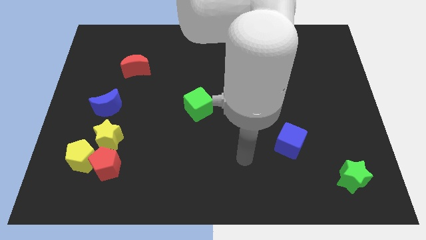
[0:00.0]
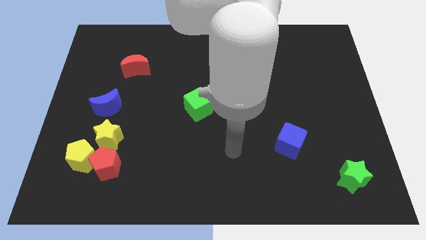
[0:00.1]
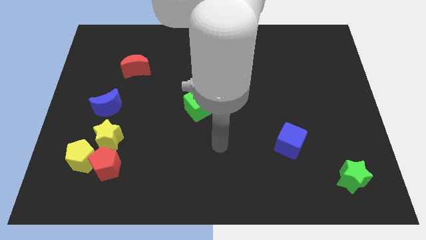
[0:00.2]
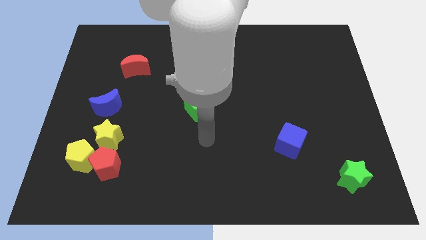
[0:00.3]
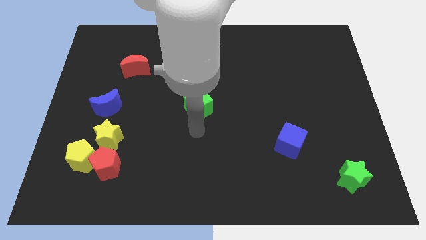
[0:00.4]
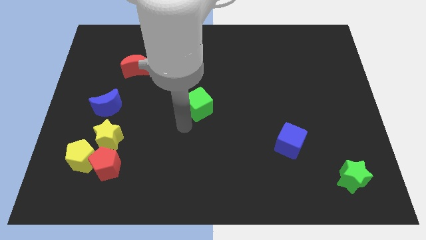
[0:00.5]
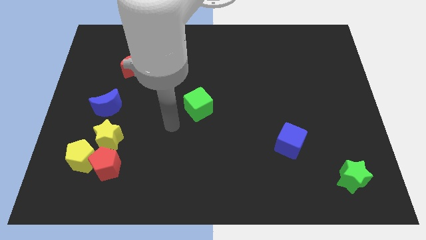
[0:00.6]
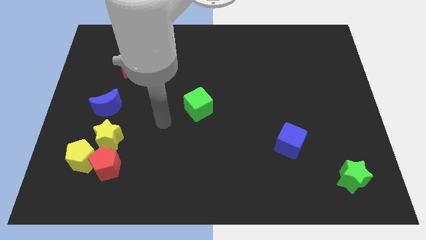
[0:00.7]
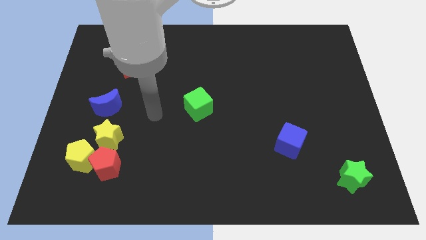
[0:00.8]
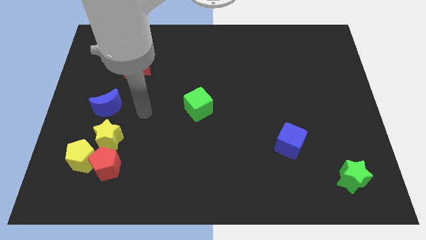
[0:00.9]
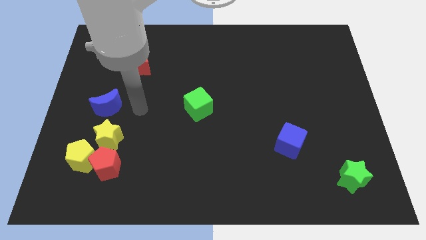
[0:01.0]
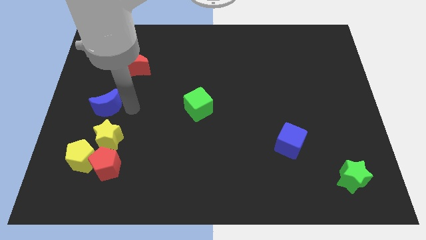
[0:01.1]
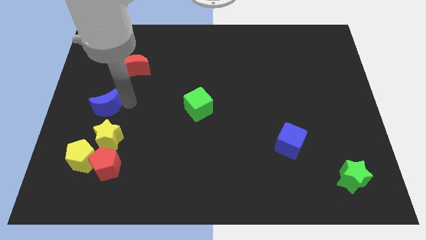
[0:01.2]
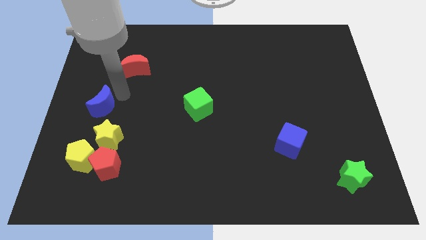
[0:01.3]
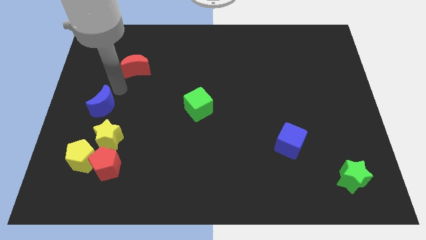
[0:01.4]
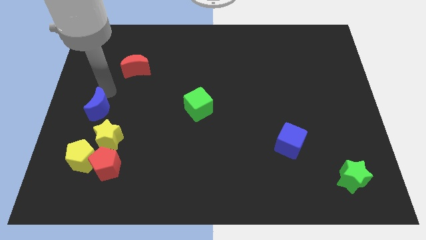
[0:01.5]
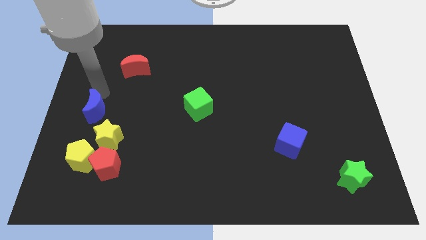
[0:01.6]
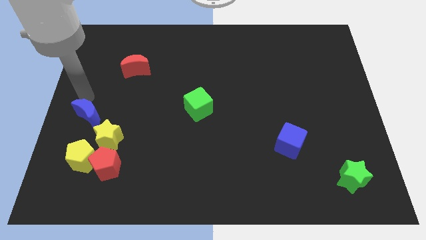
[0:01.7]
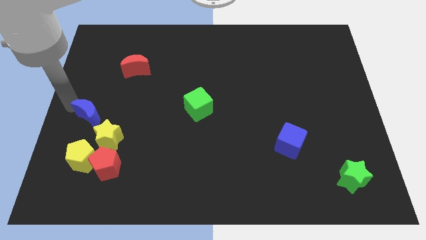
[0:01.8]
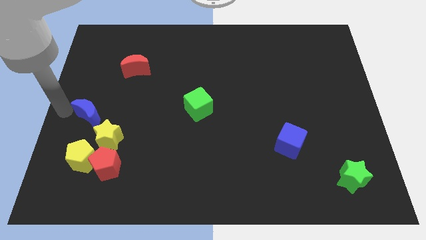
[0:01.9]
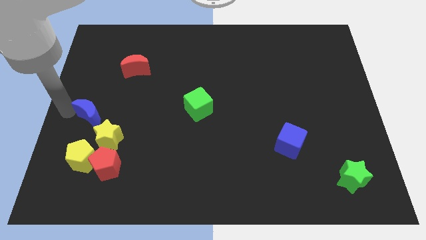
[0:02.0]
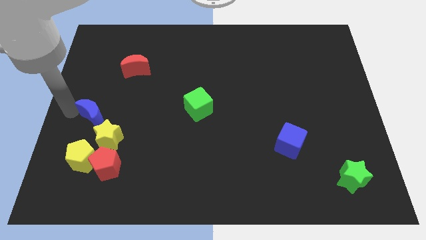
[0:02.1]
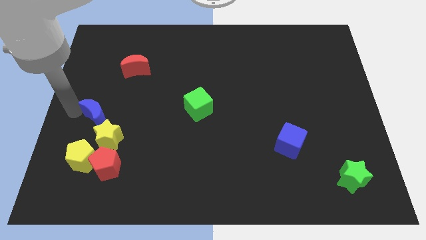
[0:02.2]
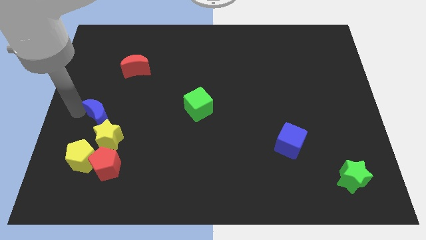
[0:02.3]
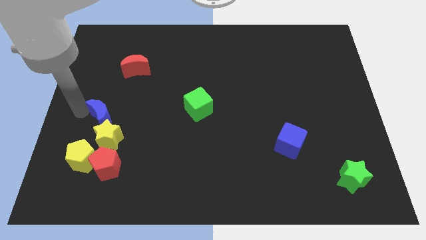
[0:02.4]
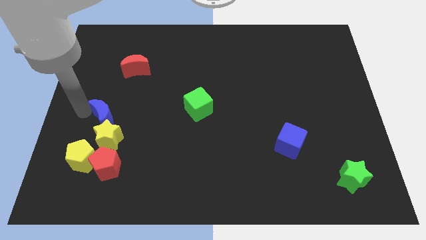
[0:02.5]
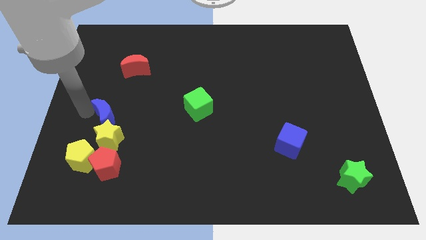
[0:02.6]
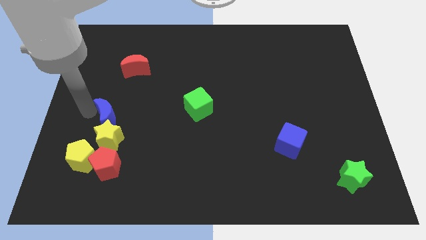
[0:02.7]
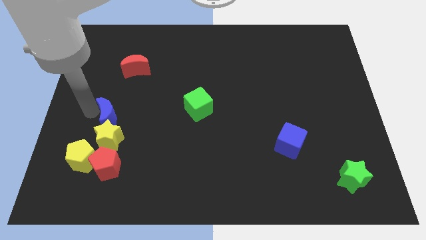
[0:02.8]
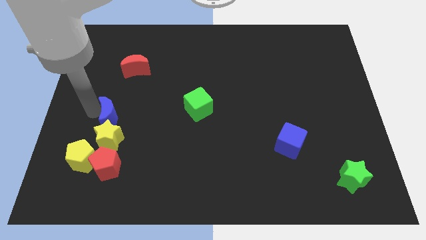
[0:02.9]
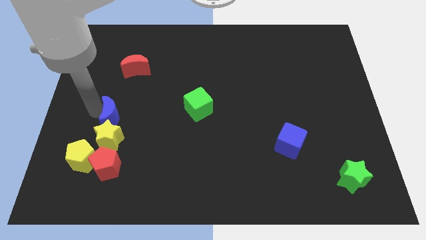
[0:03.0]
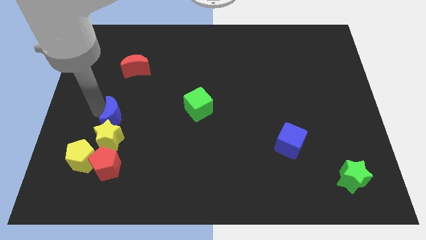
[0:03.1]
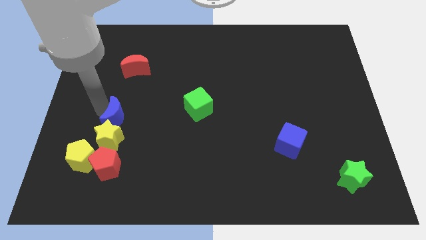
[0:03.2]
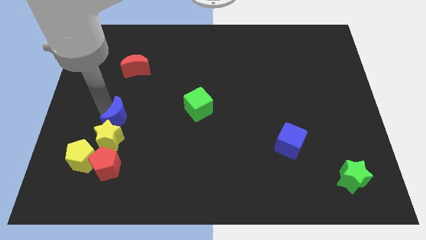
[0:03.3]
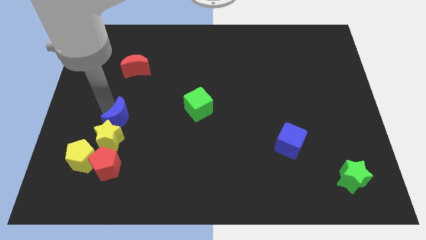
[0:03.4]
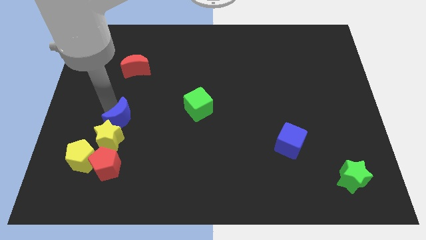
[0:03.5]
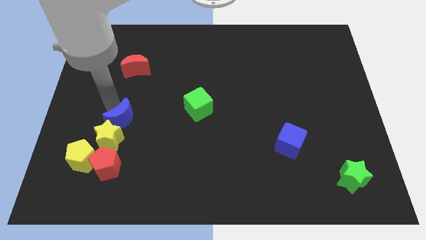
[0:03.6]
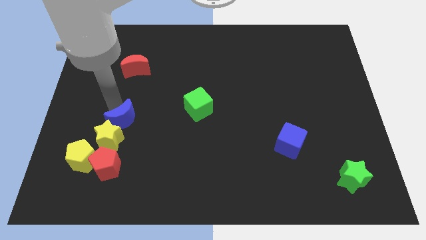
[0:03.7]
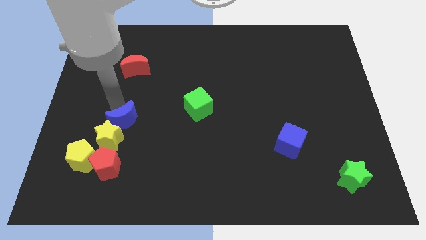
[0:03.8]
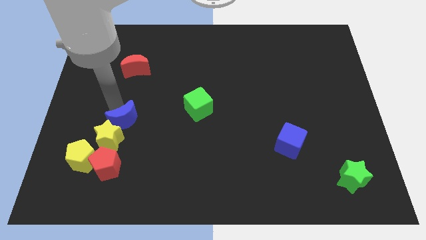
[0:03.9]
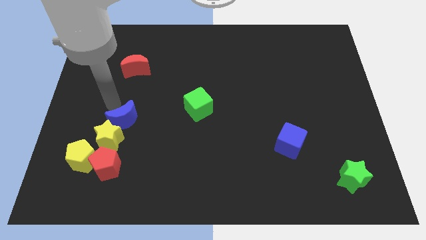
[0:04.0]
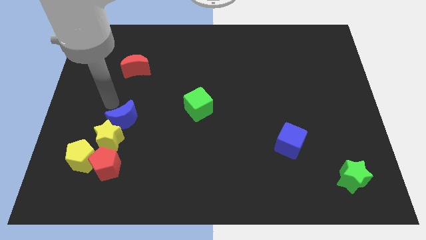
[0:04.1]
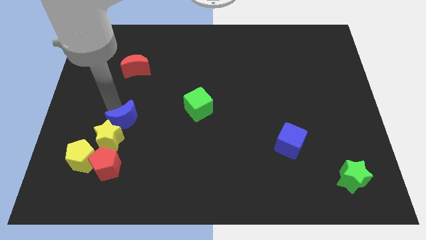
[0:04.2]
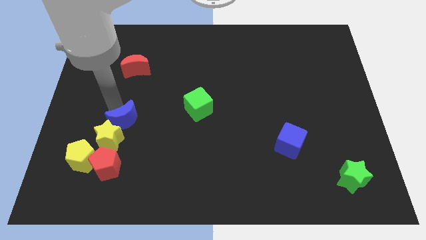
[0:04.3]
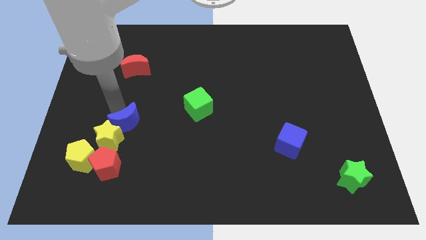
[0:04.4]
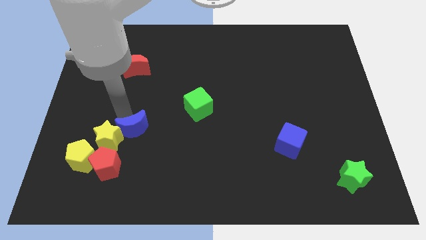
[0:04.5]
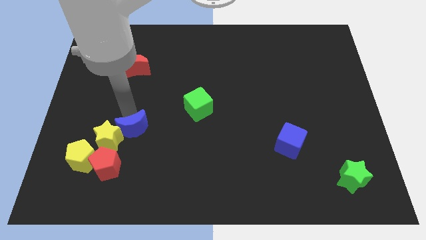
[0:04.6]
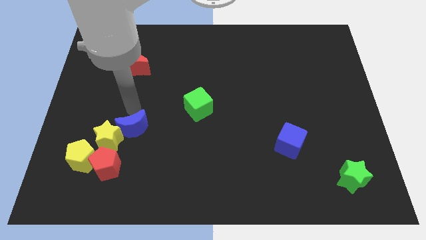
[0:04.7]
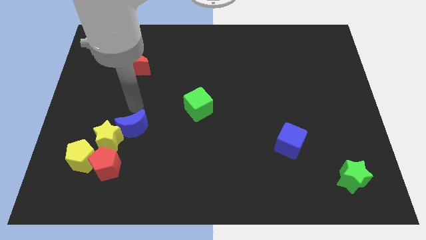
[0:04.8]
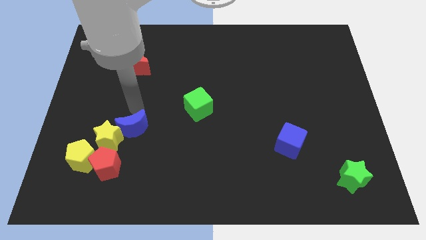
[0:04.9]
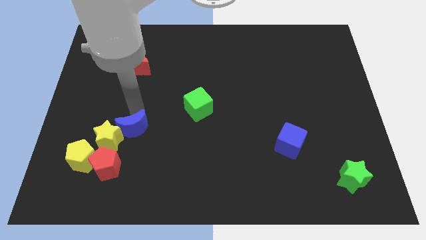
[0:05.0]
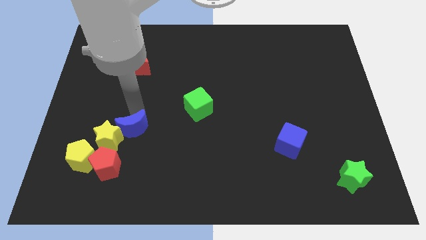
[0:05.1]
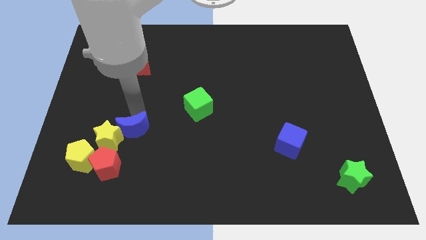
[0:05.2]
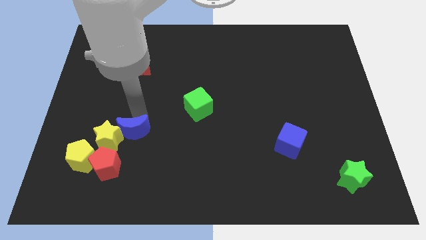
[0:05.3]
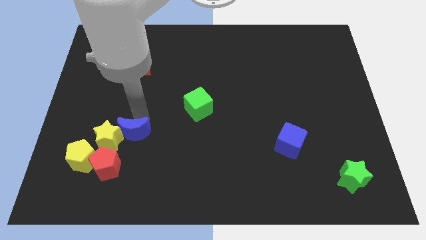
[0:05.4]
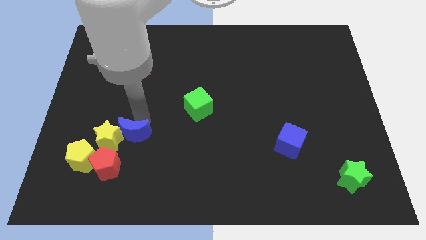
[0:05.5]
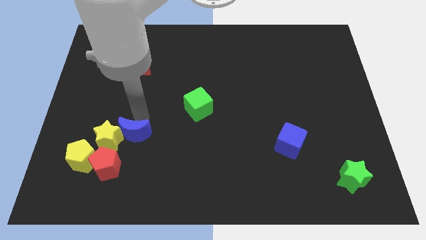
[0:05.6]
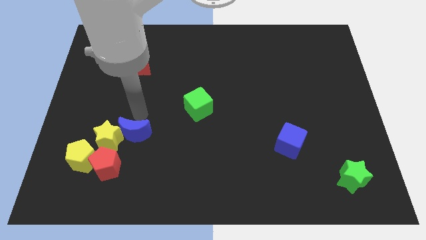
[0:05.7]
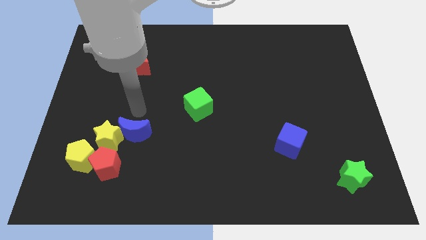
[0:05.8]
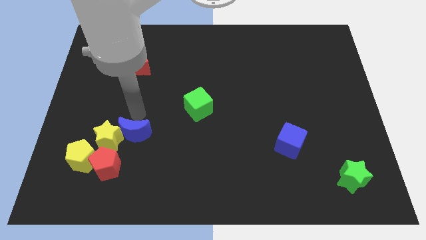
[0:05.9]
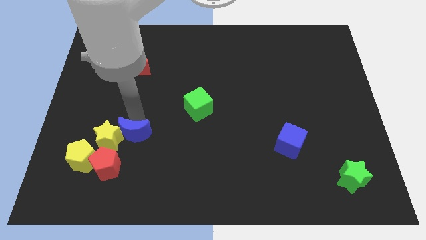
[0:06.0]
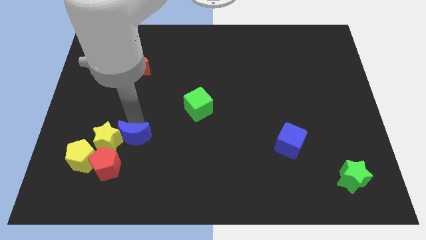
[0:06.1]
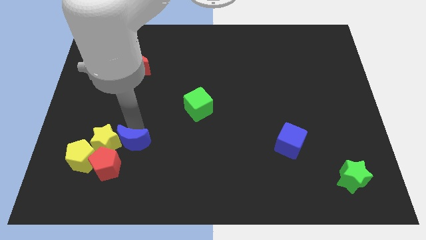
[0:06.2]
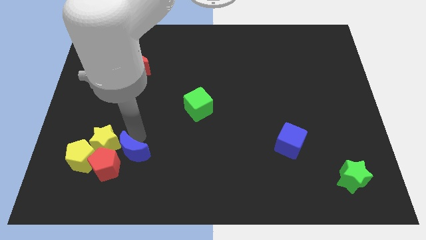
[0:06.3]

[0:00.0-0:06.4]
slide the blue moon to the red pentagon

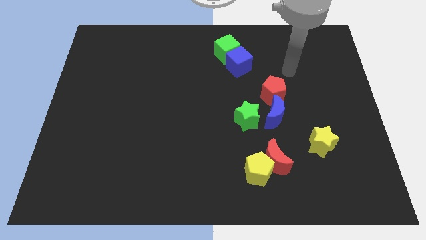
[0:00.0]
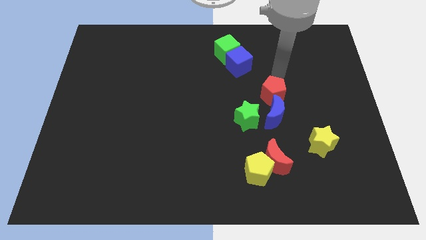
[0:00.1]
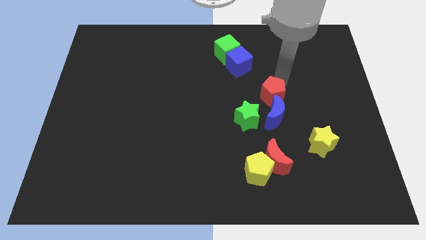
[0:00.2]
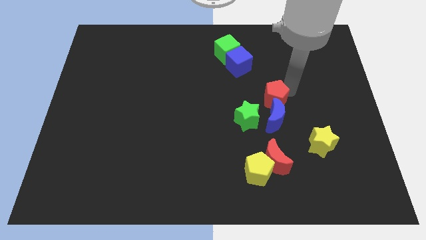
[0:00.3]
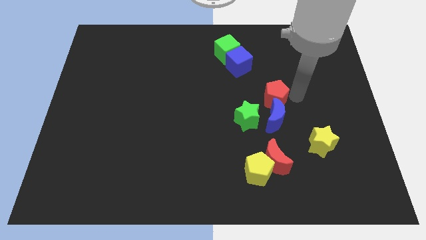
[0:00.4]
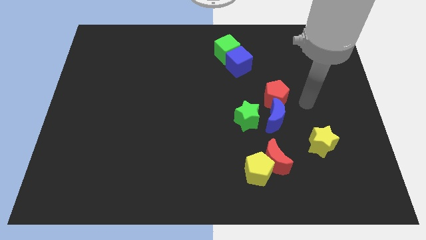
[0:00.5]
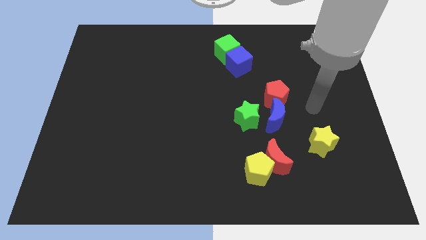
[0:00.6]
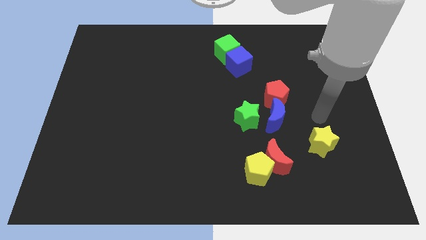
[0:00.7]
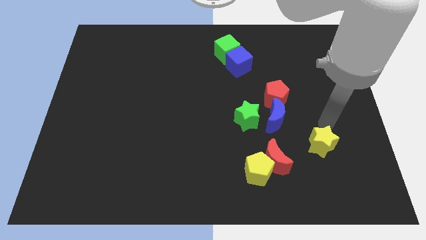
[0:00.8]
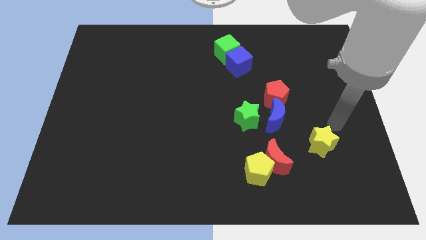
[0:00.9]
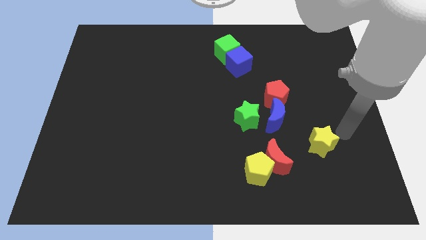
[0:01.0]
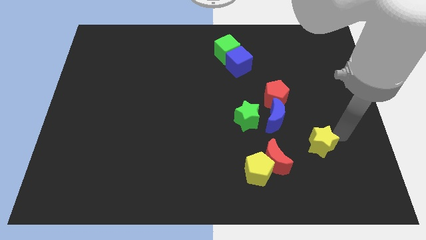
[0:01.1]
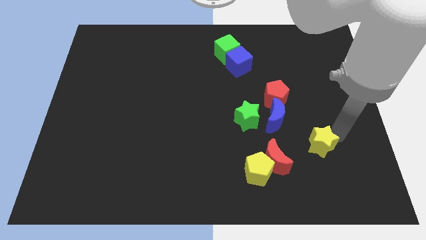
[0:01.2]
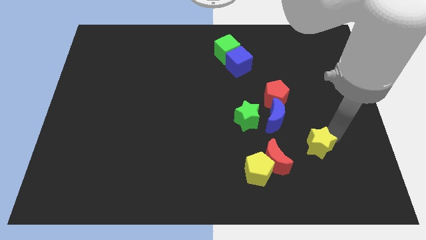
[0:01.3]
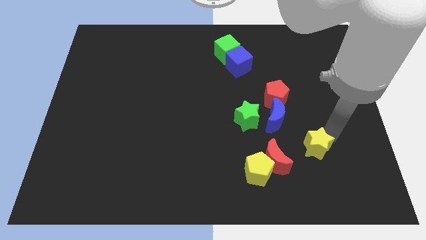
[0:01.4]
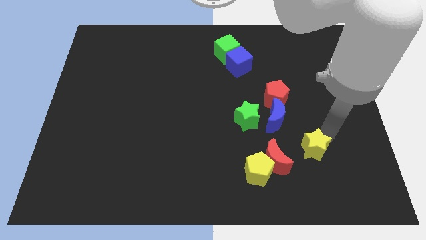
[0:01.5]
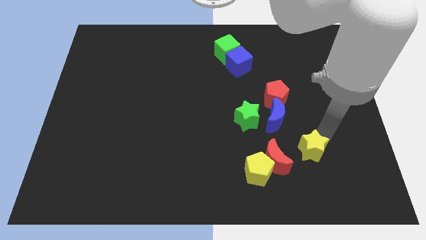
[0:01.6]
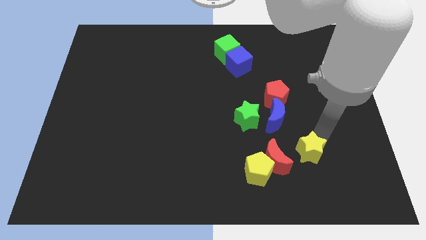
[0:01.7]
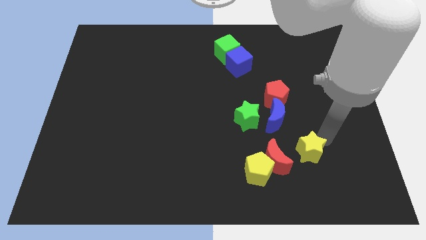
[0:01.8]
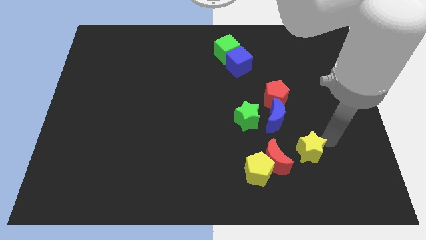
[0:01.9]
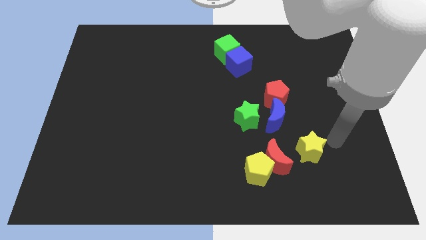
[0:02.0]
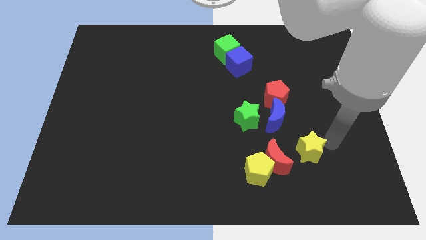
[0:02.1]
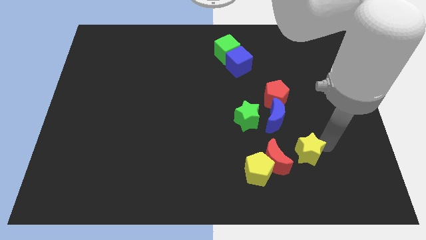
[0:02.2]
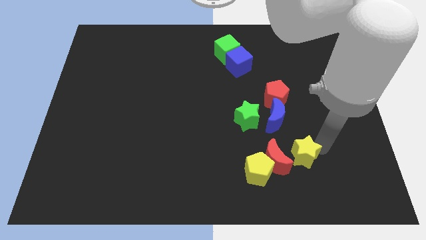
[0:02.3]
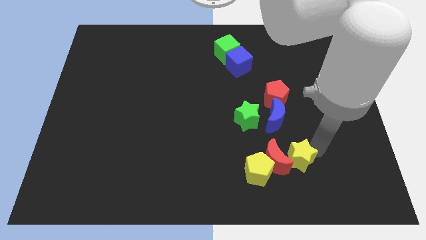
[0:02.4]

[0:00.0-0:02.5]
push the yellow star close to the red moon
